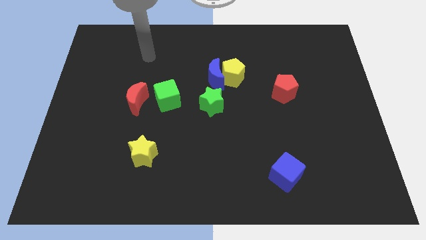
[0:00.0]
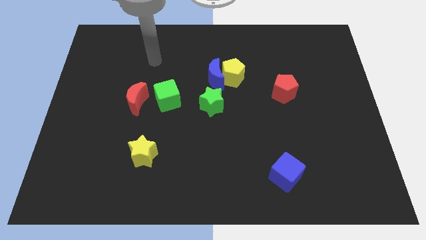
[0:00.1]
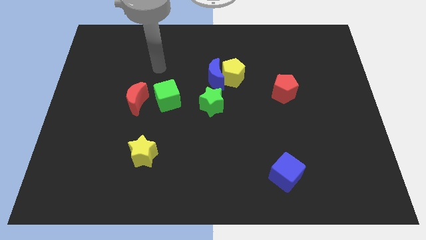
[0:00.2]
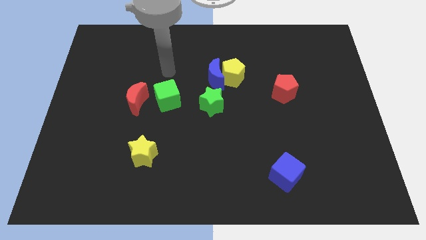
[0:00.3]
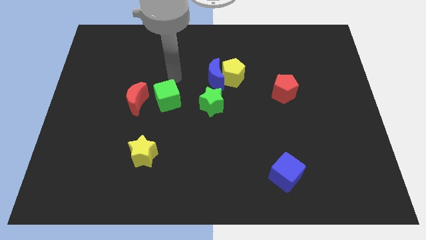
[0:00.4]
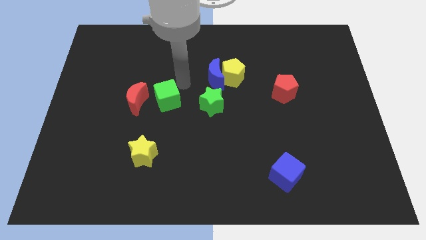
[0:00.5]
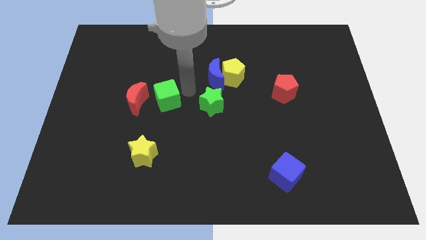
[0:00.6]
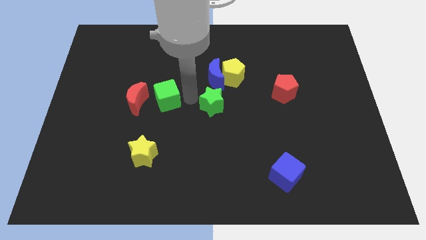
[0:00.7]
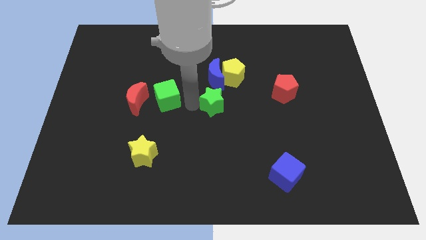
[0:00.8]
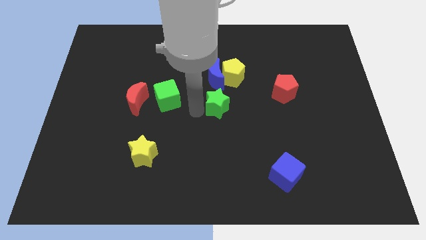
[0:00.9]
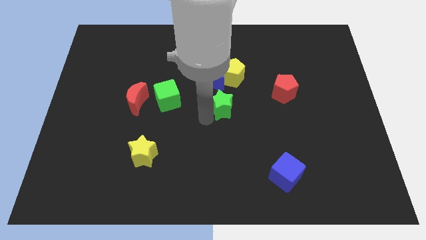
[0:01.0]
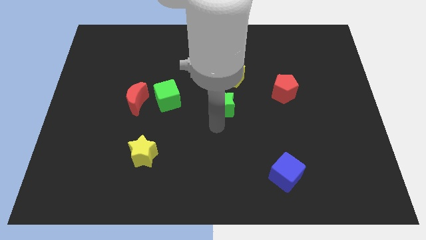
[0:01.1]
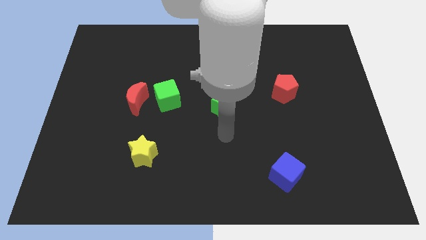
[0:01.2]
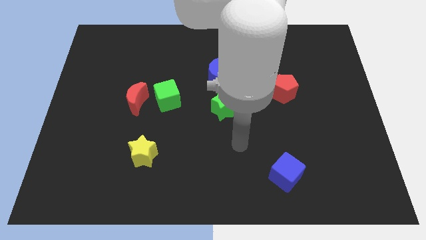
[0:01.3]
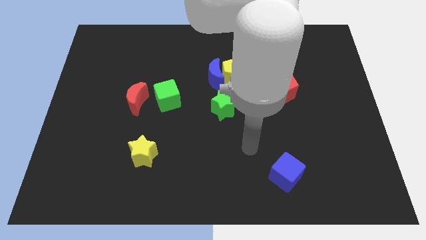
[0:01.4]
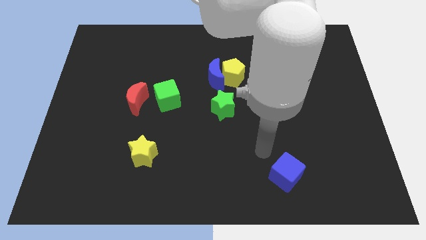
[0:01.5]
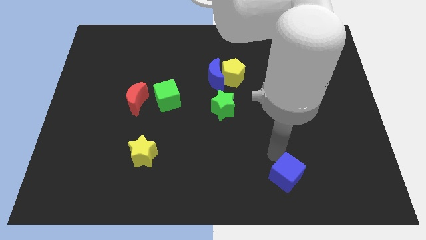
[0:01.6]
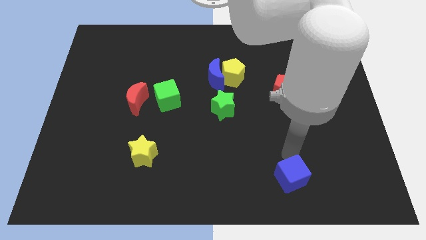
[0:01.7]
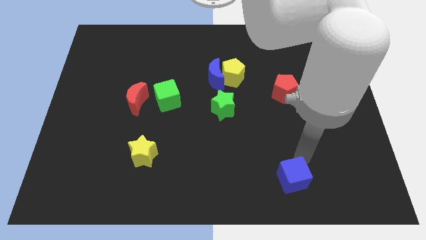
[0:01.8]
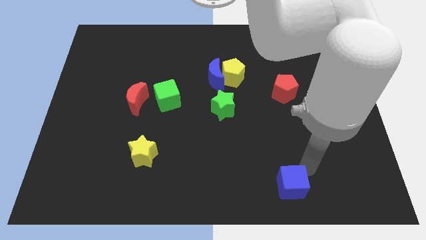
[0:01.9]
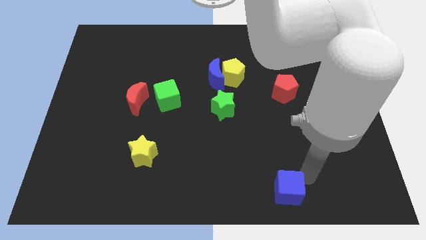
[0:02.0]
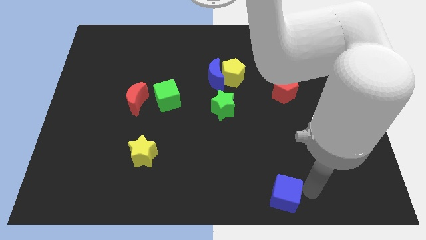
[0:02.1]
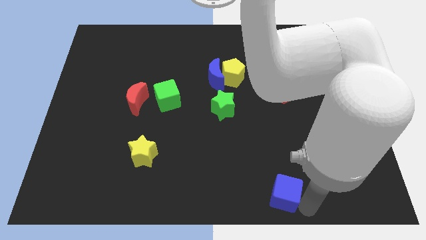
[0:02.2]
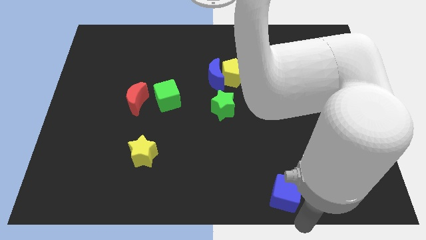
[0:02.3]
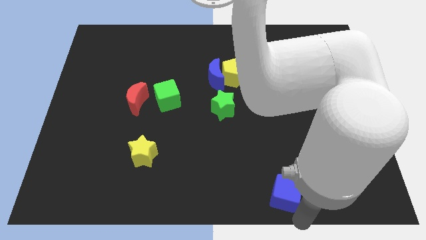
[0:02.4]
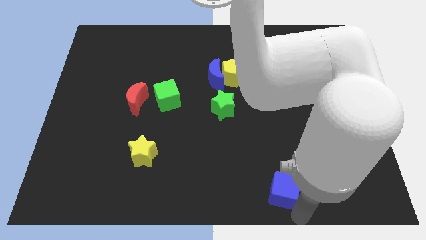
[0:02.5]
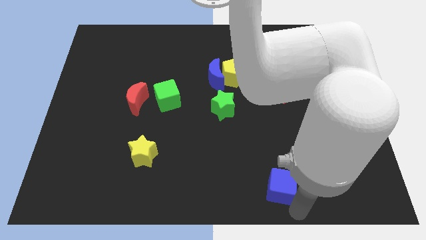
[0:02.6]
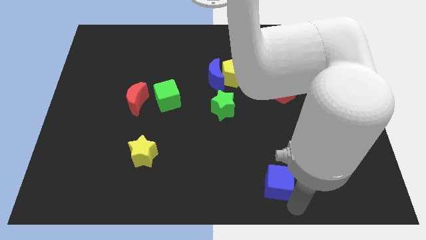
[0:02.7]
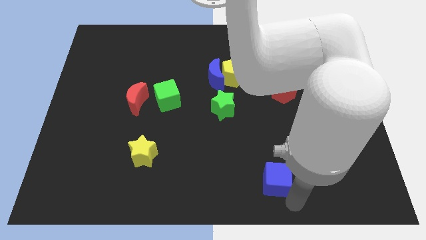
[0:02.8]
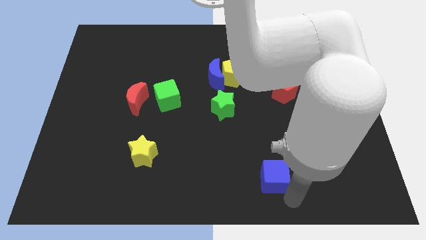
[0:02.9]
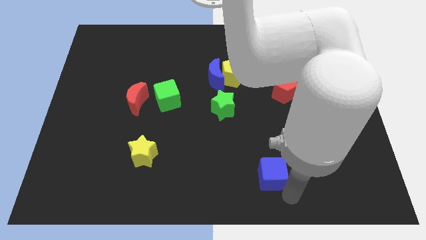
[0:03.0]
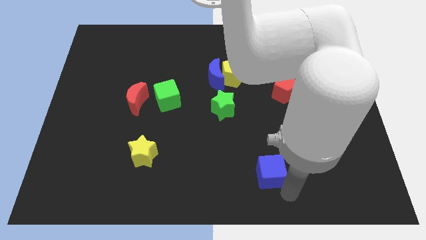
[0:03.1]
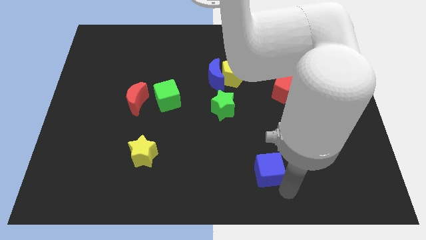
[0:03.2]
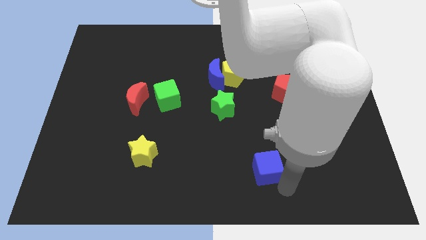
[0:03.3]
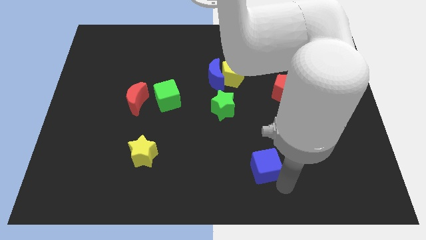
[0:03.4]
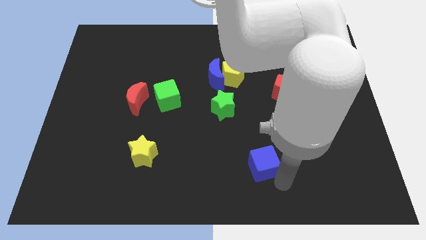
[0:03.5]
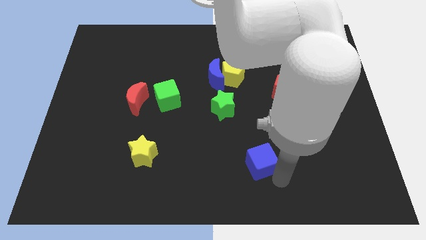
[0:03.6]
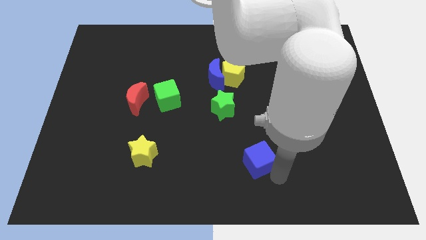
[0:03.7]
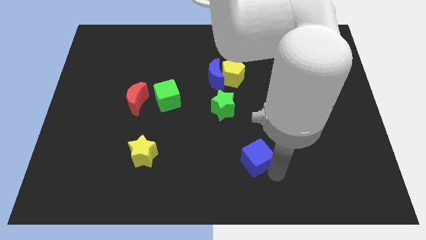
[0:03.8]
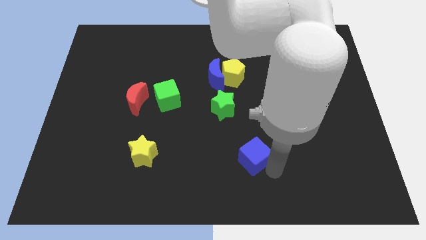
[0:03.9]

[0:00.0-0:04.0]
push the blue cube diagonally upwards and left somewhat

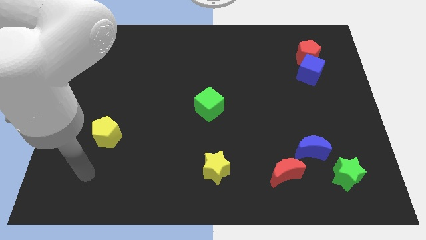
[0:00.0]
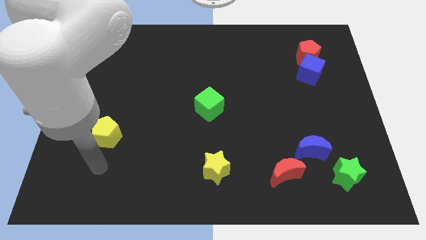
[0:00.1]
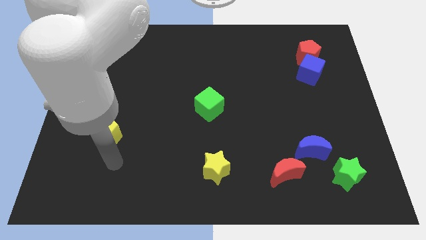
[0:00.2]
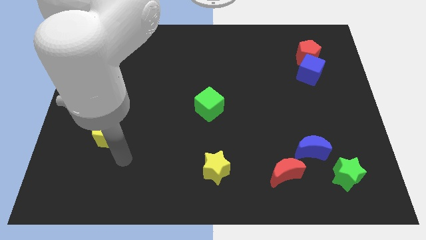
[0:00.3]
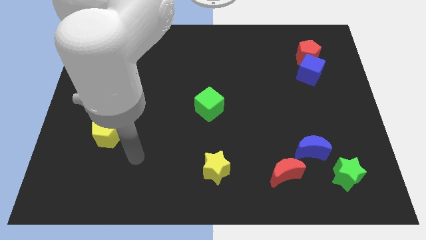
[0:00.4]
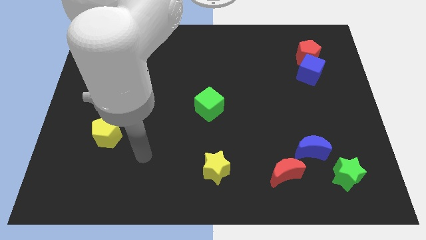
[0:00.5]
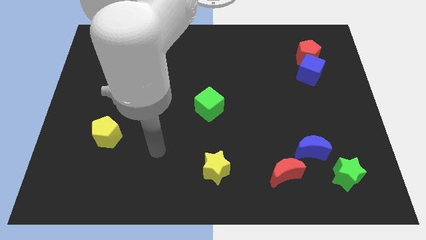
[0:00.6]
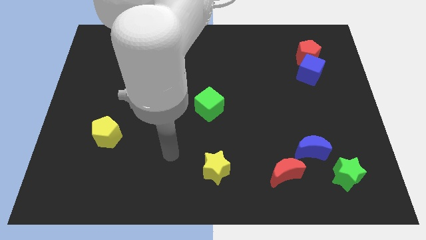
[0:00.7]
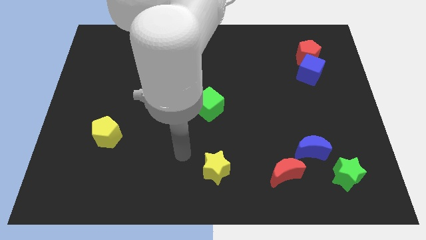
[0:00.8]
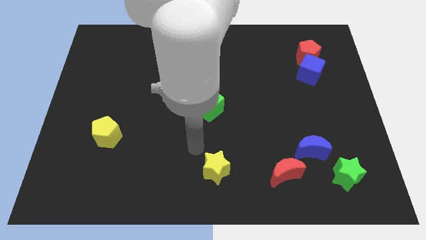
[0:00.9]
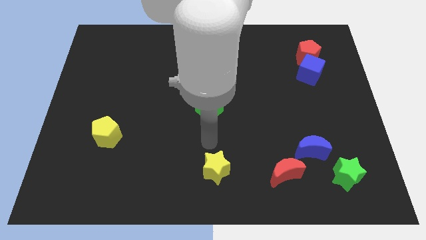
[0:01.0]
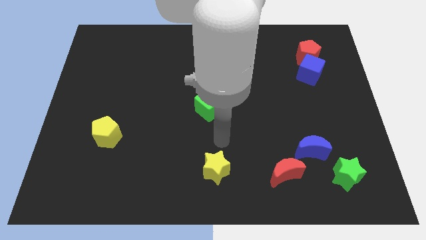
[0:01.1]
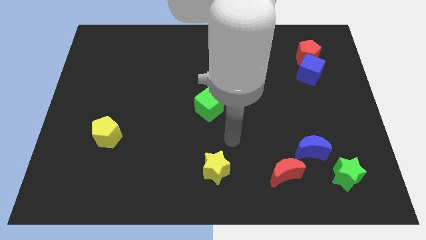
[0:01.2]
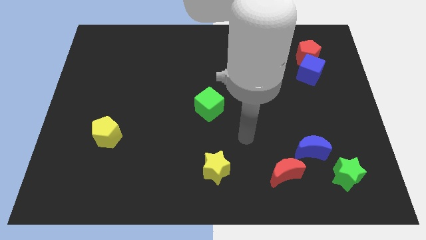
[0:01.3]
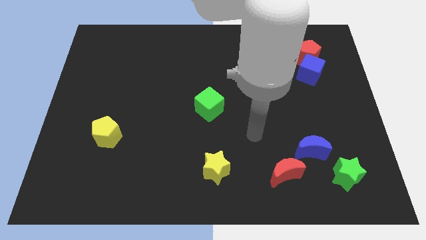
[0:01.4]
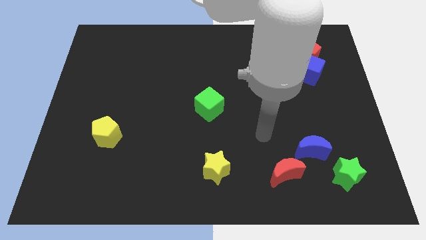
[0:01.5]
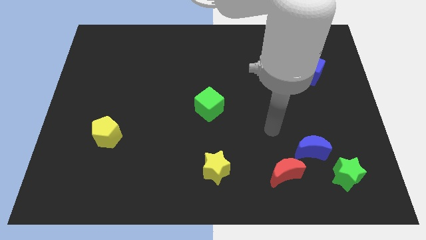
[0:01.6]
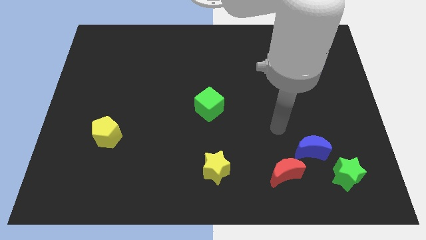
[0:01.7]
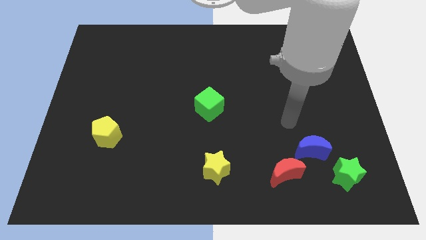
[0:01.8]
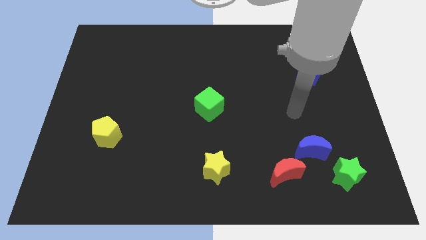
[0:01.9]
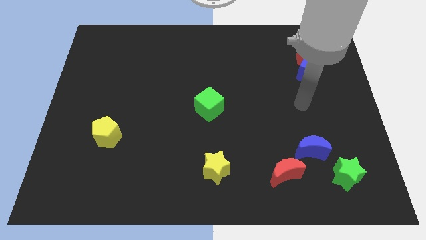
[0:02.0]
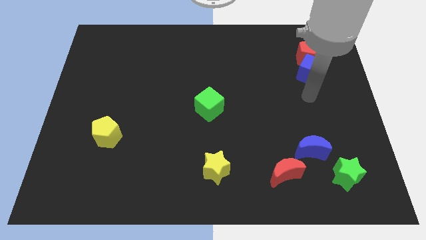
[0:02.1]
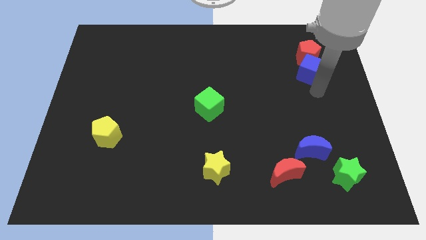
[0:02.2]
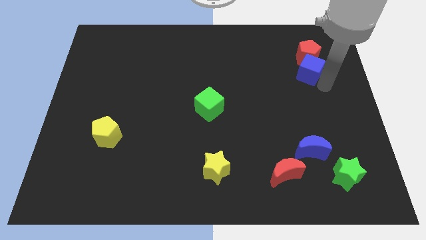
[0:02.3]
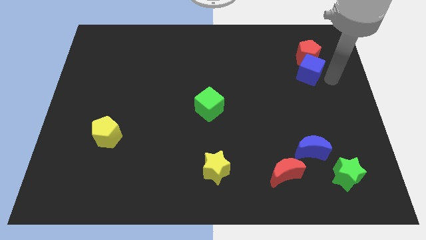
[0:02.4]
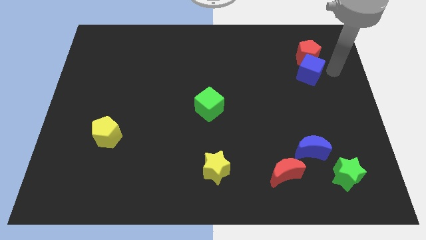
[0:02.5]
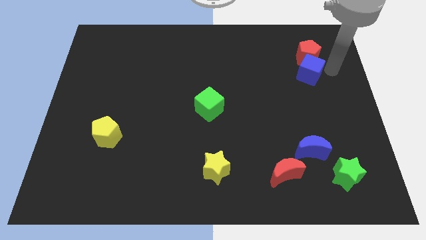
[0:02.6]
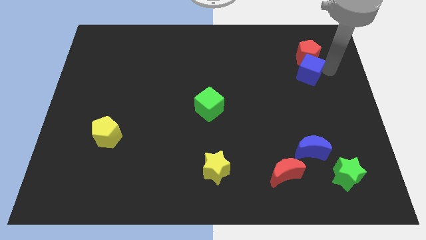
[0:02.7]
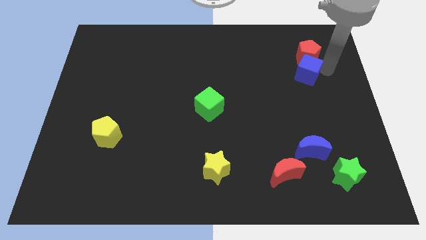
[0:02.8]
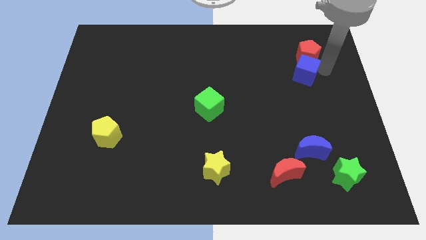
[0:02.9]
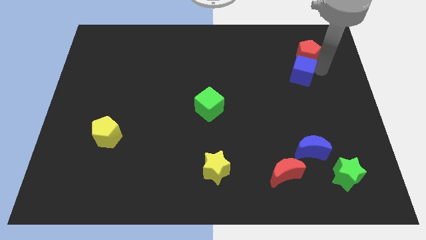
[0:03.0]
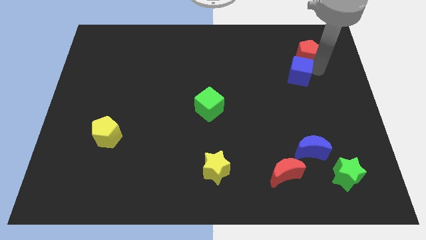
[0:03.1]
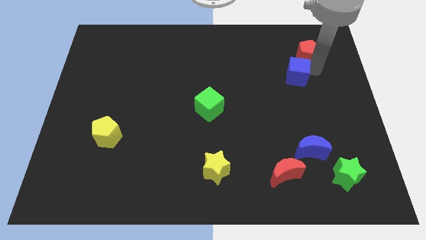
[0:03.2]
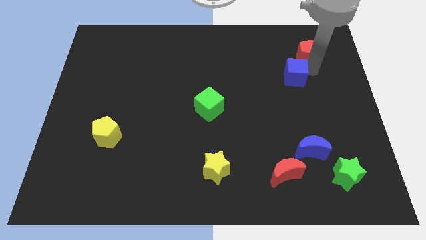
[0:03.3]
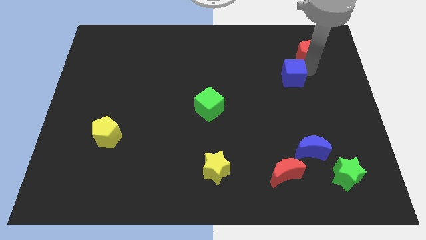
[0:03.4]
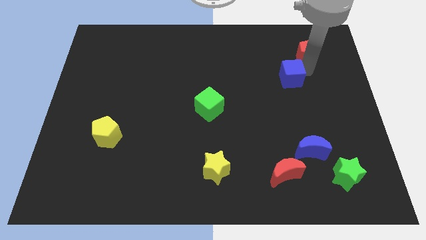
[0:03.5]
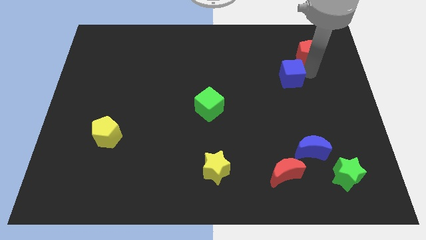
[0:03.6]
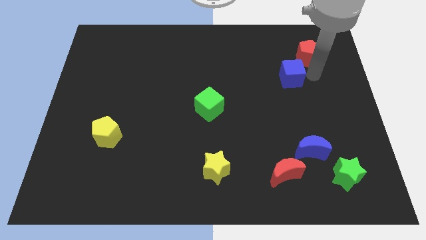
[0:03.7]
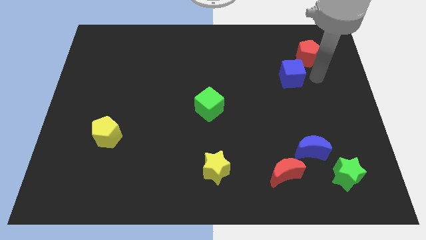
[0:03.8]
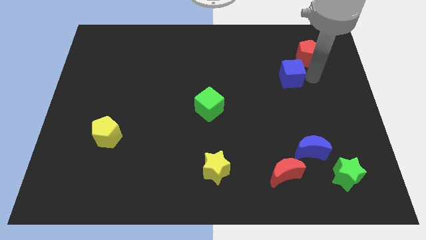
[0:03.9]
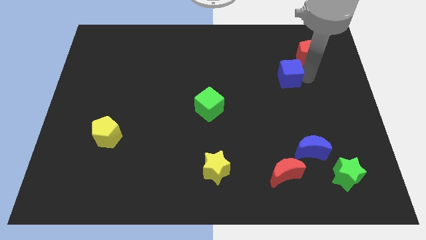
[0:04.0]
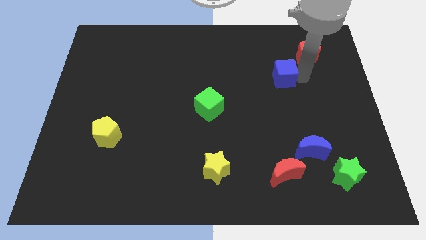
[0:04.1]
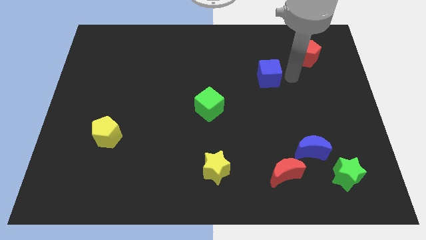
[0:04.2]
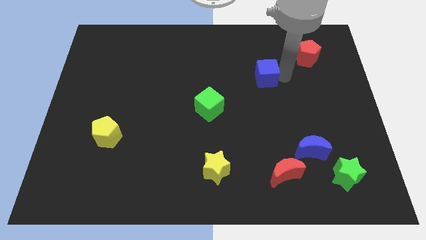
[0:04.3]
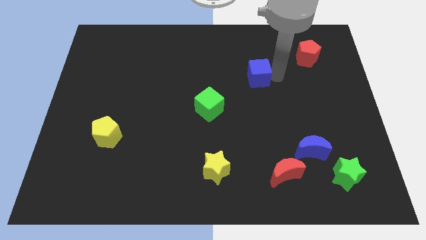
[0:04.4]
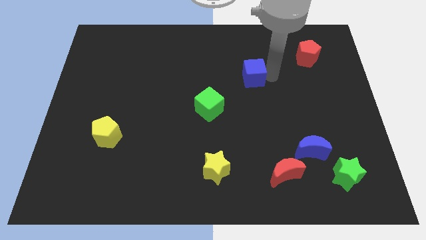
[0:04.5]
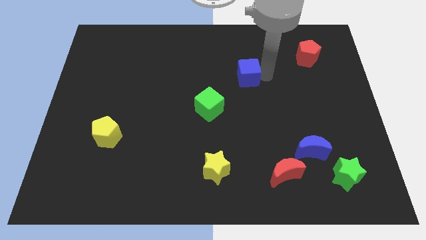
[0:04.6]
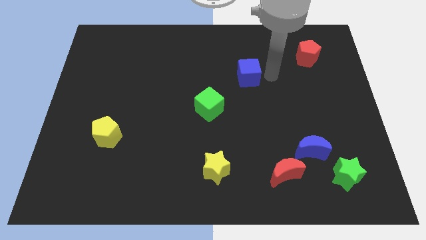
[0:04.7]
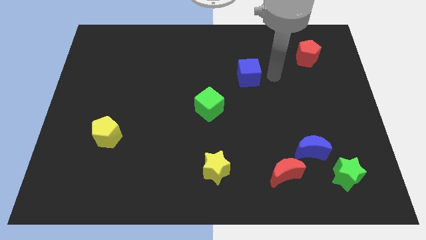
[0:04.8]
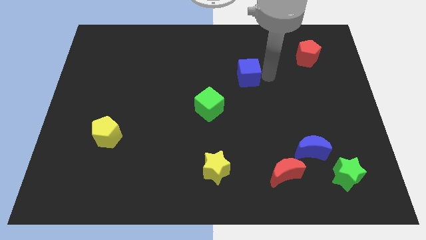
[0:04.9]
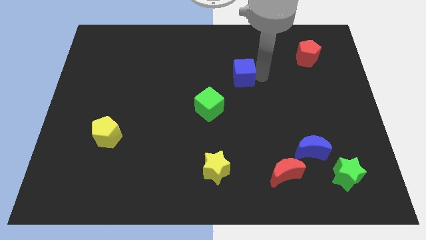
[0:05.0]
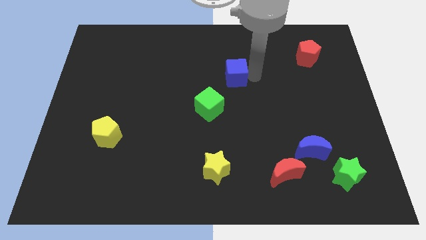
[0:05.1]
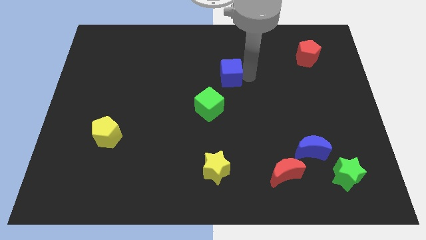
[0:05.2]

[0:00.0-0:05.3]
push the blue cube left
